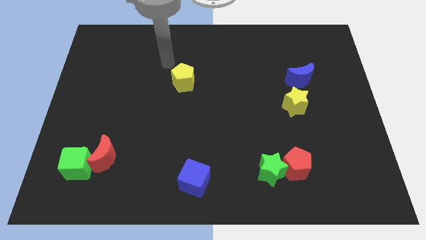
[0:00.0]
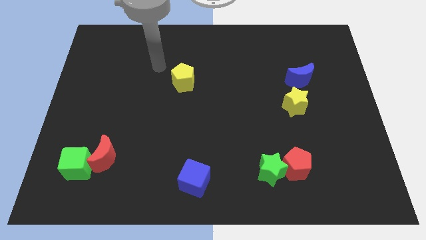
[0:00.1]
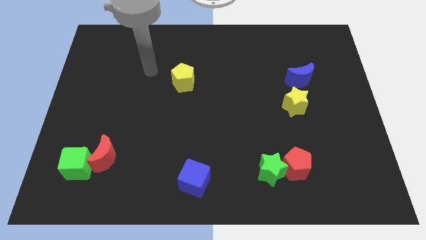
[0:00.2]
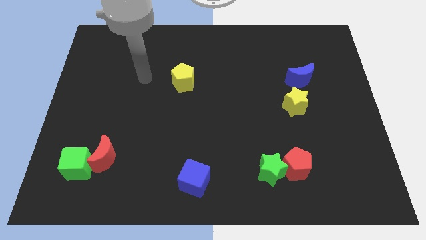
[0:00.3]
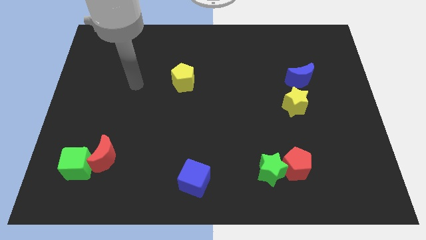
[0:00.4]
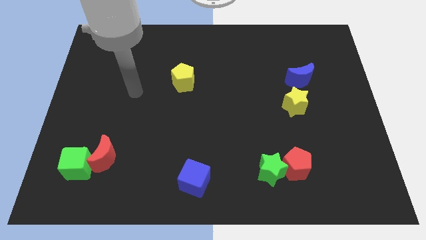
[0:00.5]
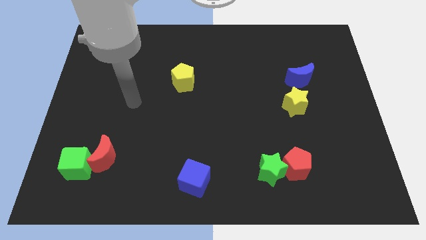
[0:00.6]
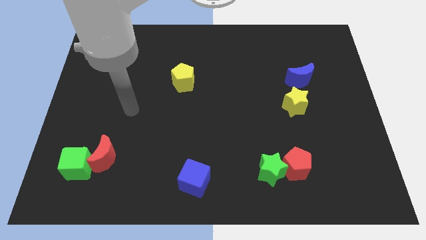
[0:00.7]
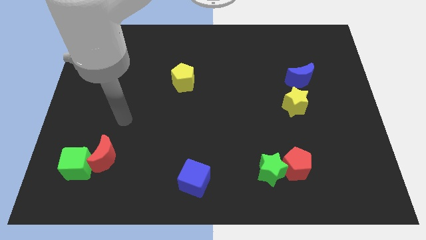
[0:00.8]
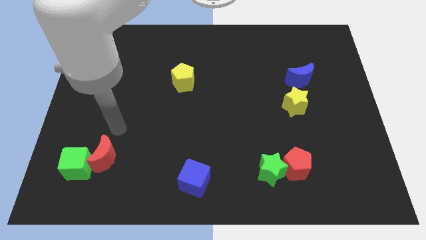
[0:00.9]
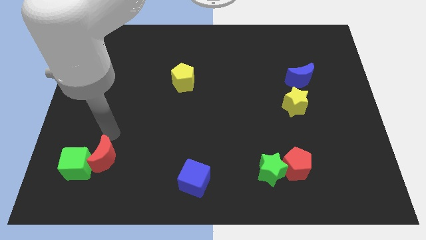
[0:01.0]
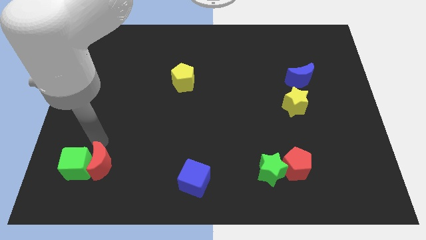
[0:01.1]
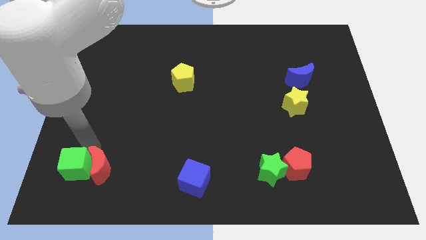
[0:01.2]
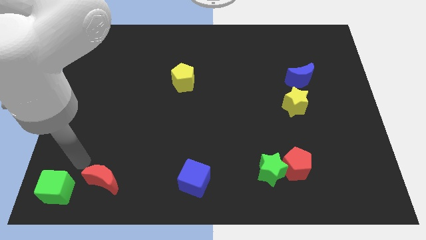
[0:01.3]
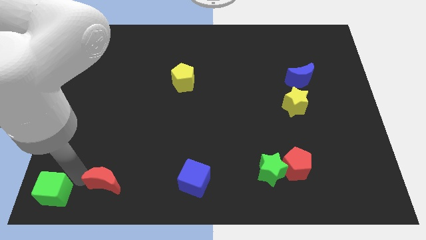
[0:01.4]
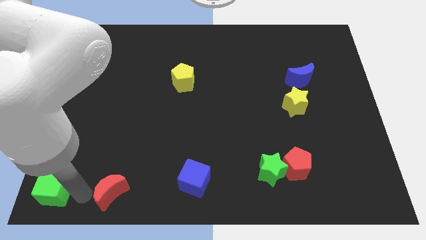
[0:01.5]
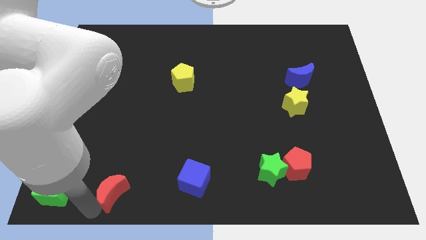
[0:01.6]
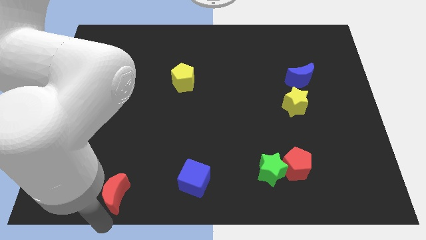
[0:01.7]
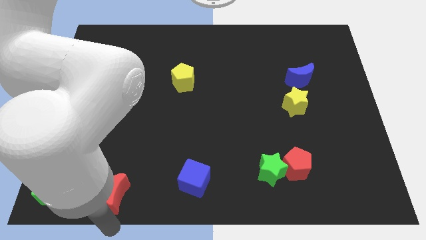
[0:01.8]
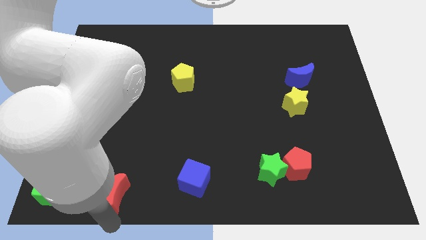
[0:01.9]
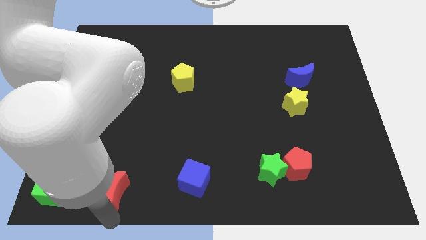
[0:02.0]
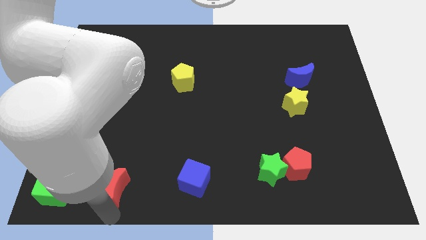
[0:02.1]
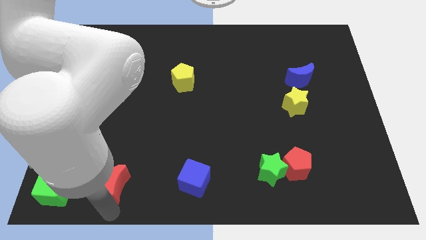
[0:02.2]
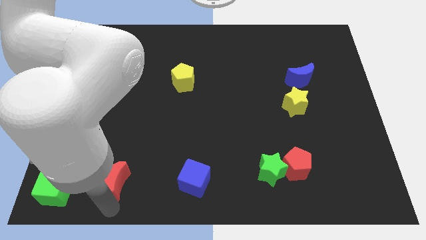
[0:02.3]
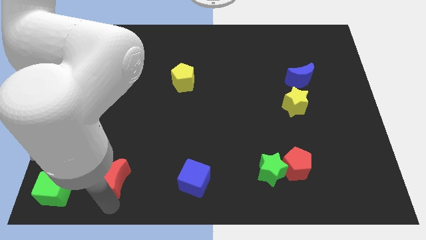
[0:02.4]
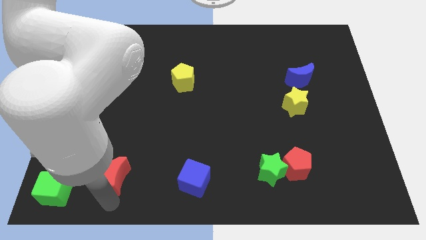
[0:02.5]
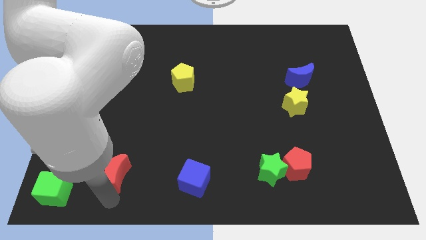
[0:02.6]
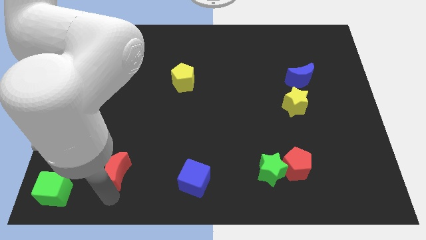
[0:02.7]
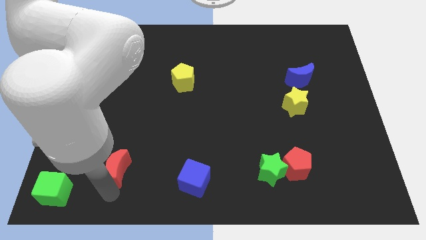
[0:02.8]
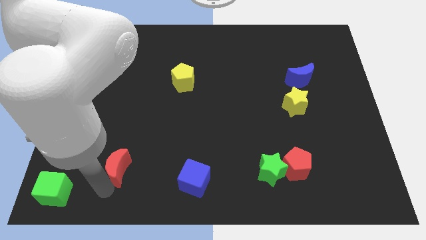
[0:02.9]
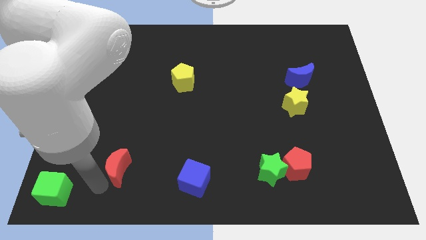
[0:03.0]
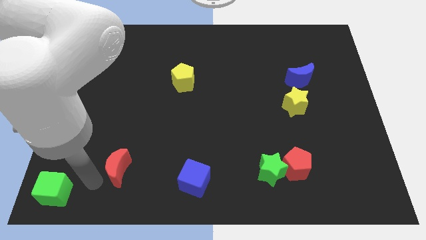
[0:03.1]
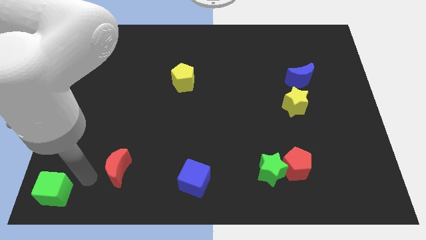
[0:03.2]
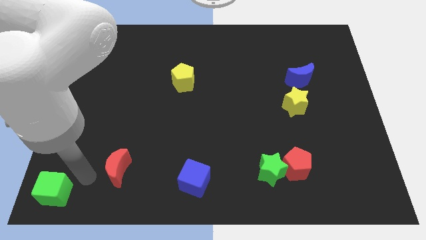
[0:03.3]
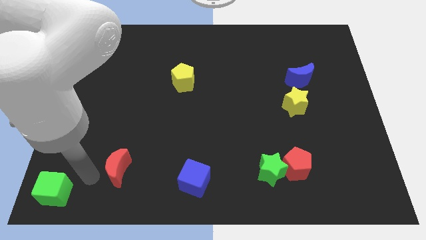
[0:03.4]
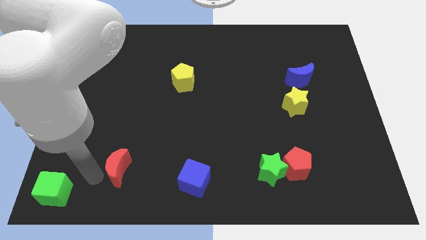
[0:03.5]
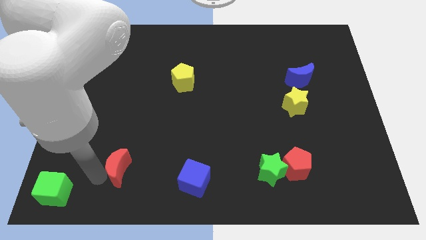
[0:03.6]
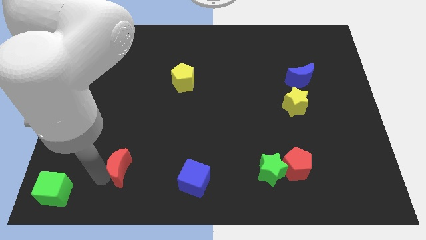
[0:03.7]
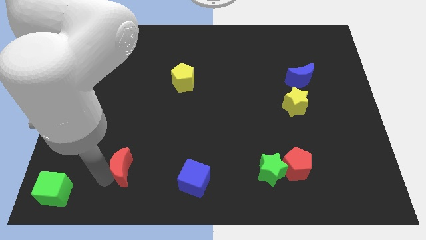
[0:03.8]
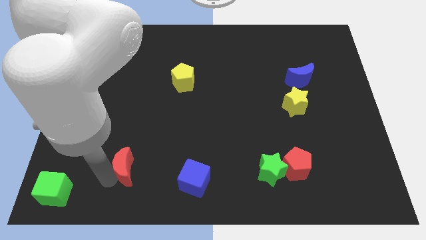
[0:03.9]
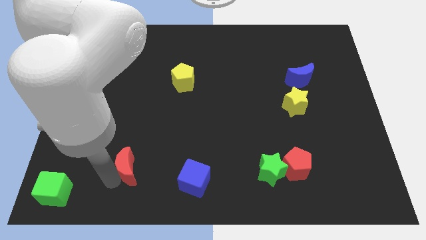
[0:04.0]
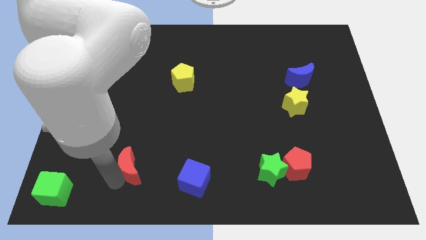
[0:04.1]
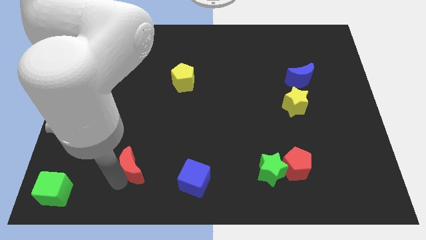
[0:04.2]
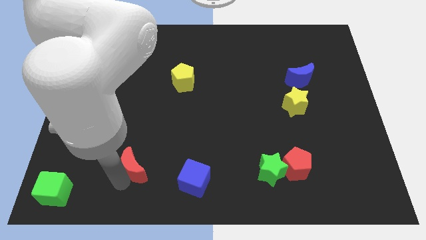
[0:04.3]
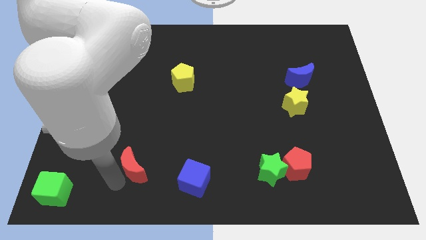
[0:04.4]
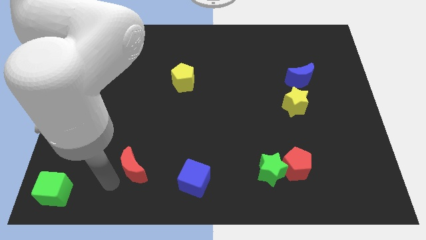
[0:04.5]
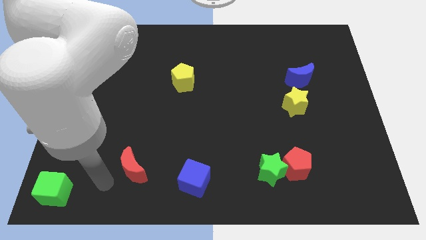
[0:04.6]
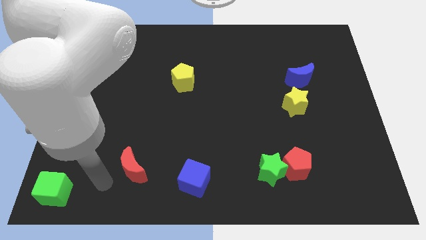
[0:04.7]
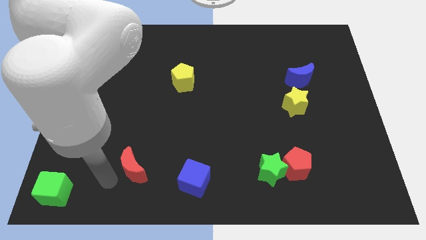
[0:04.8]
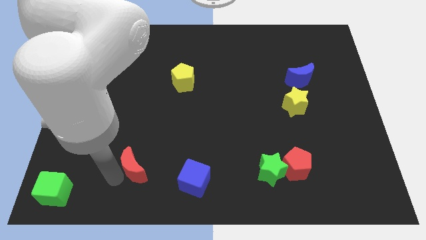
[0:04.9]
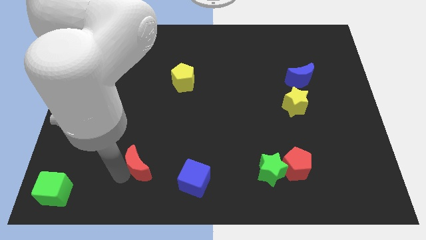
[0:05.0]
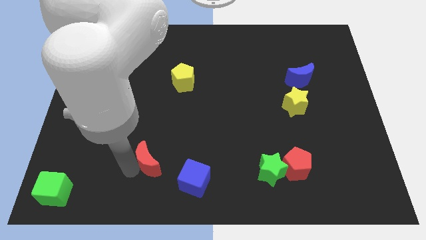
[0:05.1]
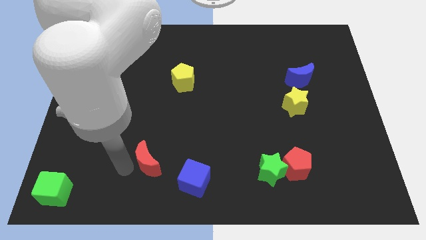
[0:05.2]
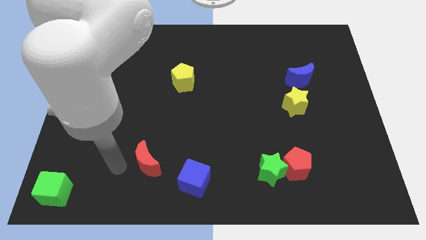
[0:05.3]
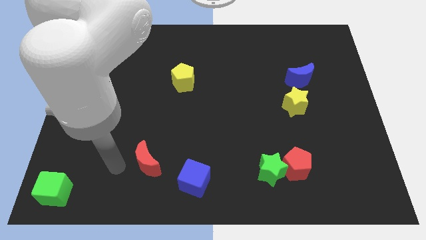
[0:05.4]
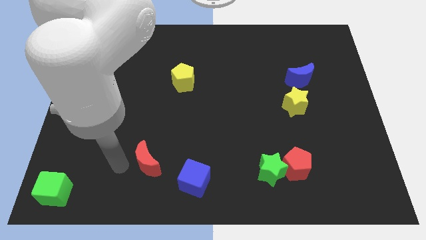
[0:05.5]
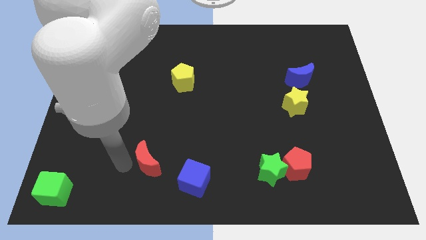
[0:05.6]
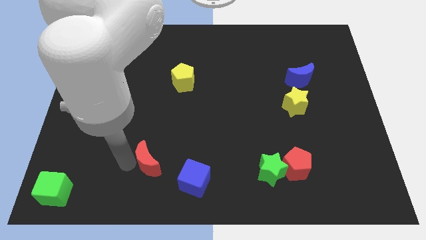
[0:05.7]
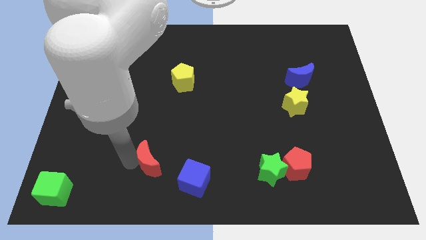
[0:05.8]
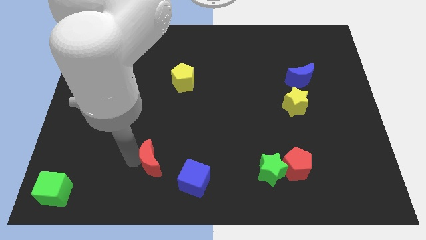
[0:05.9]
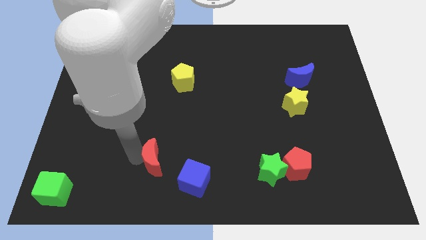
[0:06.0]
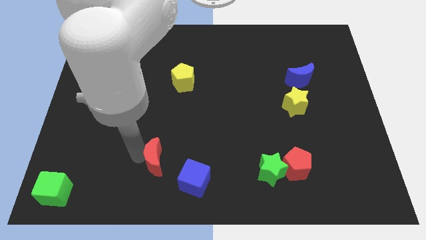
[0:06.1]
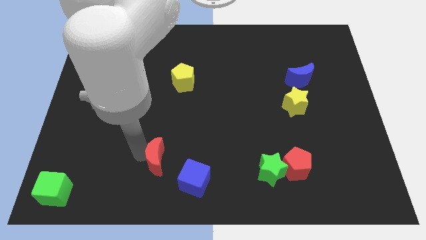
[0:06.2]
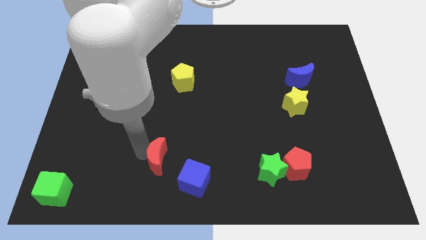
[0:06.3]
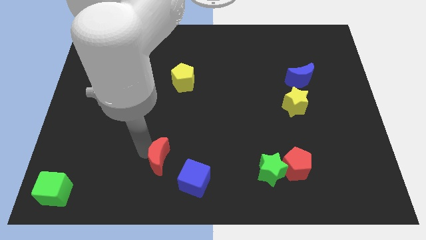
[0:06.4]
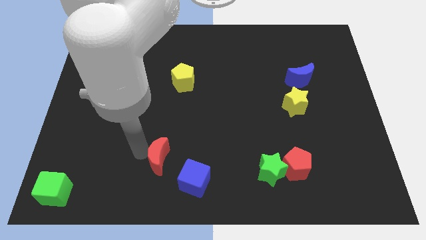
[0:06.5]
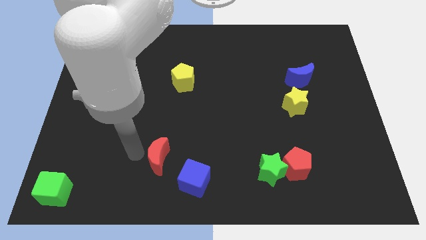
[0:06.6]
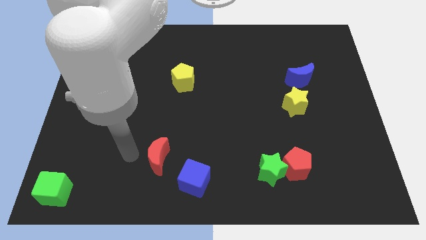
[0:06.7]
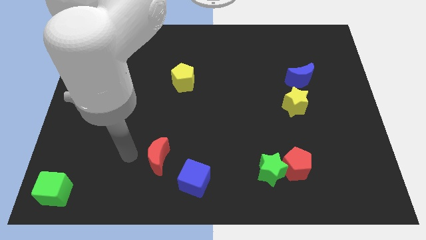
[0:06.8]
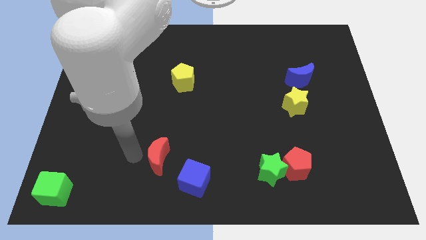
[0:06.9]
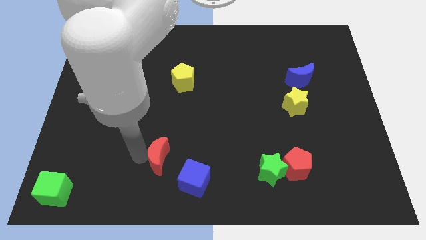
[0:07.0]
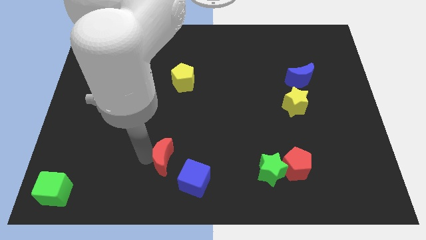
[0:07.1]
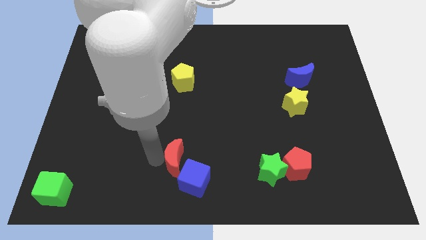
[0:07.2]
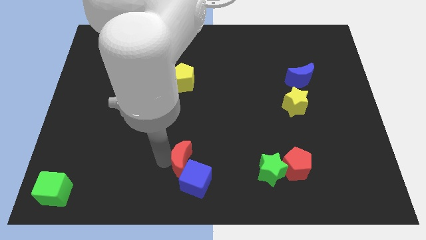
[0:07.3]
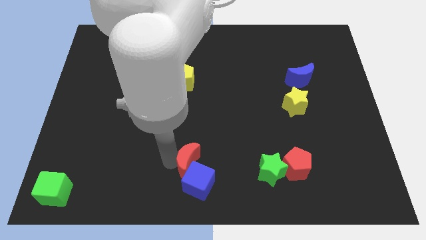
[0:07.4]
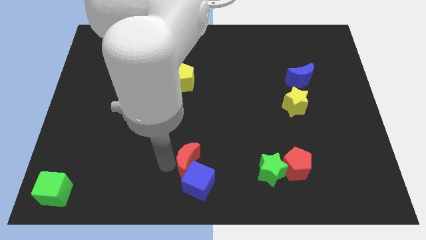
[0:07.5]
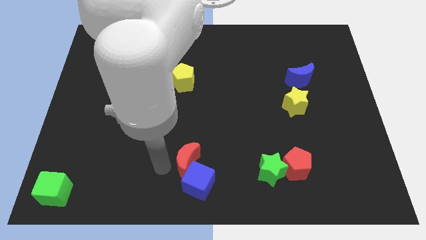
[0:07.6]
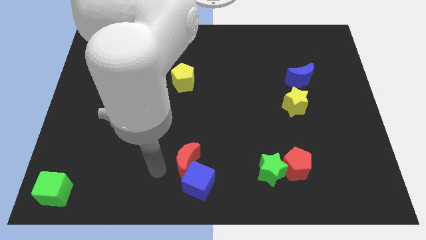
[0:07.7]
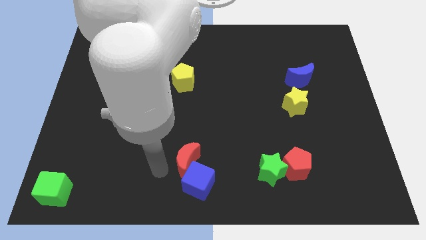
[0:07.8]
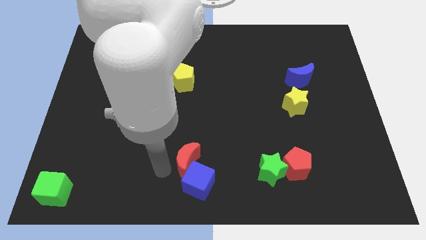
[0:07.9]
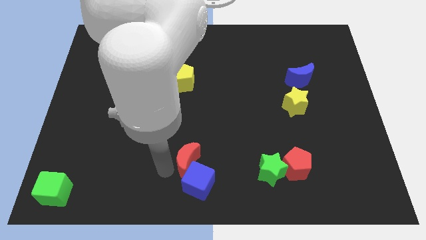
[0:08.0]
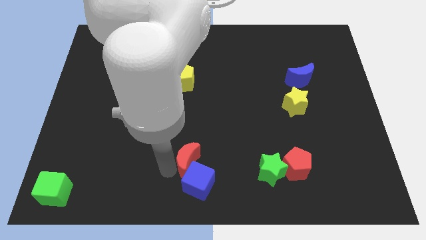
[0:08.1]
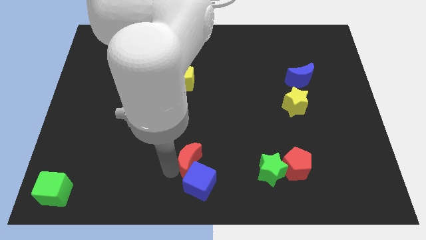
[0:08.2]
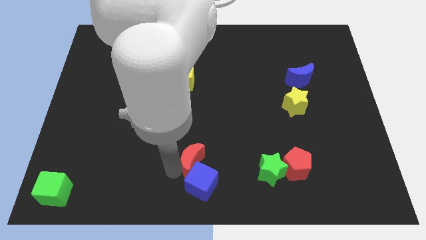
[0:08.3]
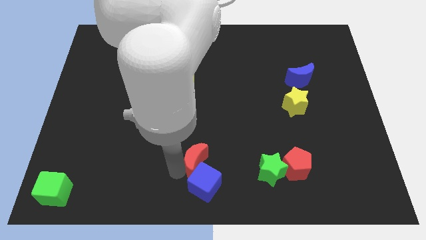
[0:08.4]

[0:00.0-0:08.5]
slide the red moon left of the green star
